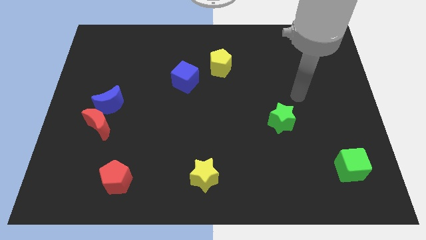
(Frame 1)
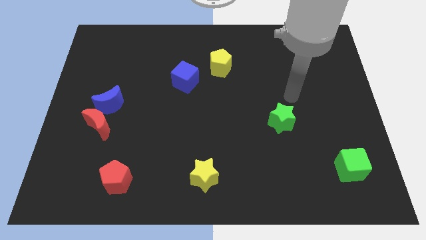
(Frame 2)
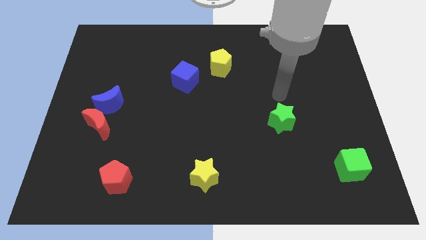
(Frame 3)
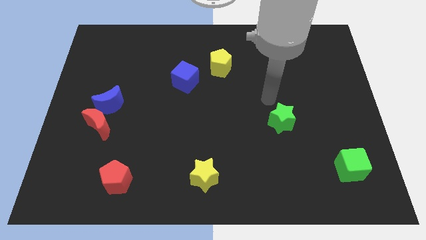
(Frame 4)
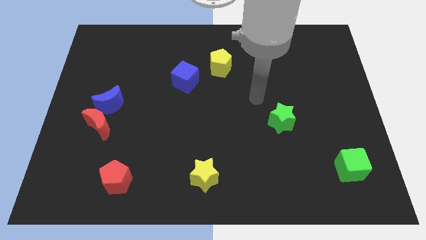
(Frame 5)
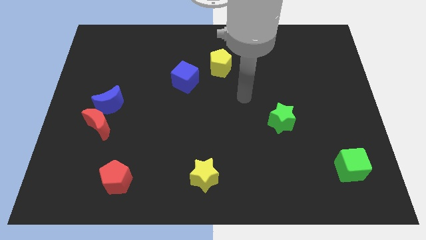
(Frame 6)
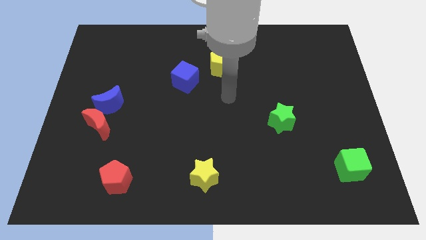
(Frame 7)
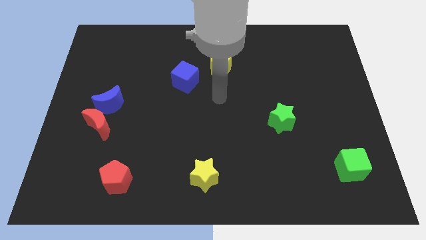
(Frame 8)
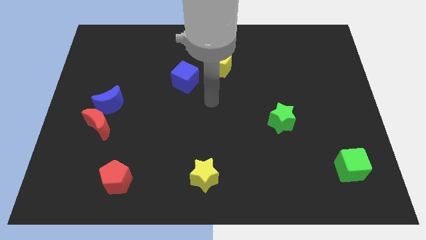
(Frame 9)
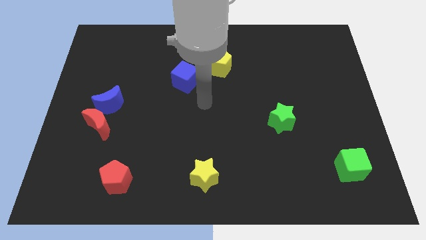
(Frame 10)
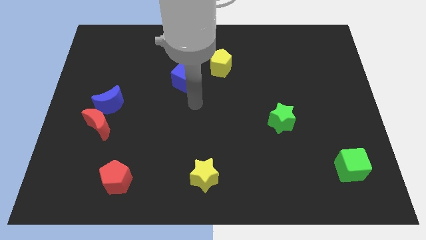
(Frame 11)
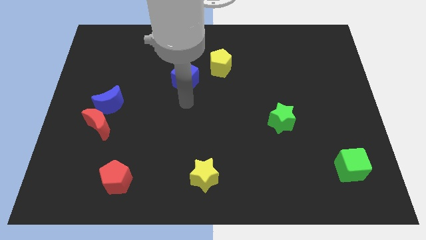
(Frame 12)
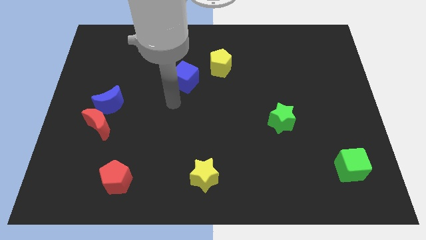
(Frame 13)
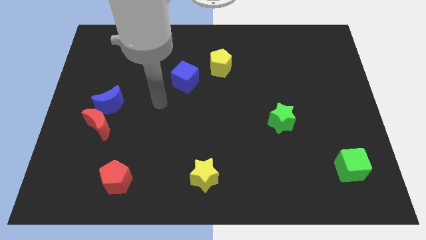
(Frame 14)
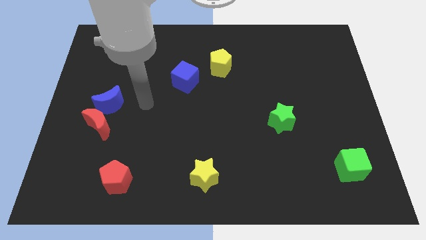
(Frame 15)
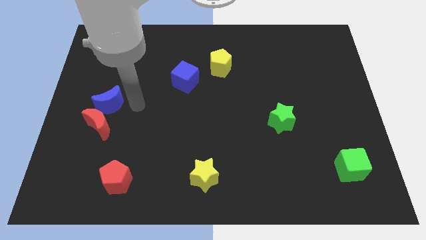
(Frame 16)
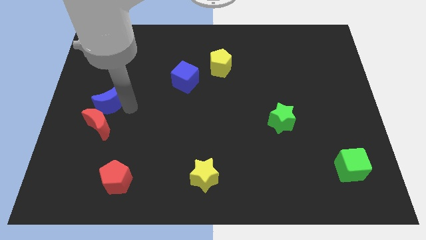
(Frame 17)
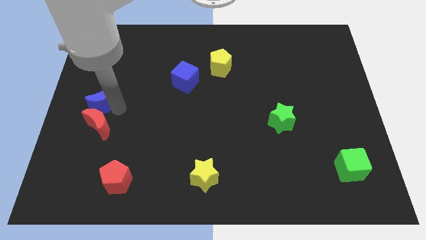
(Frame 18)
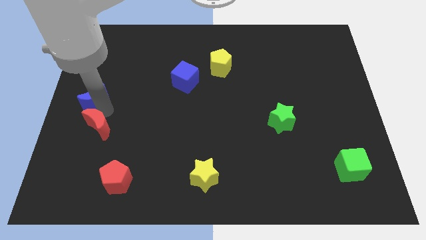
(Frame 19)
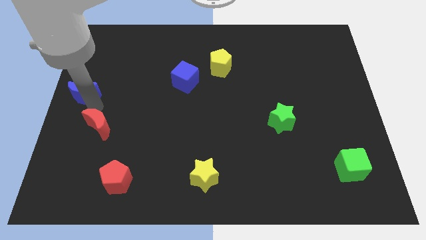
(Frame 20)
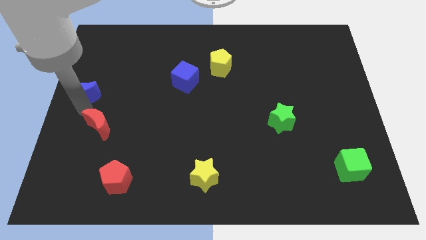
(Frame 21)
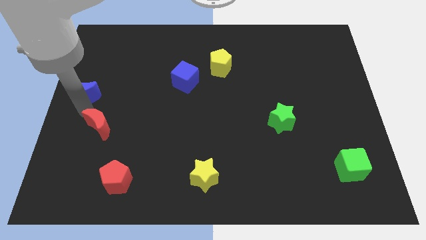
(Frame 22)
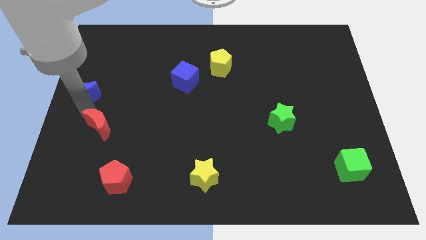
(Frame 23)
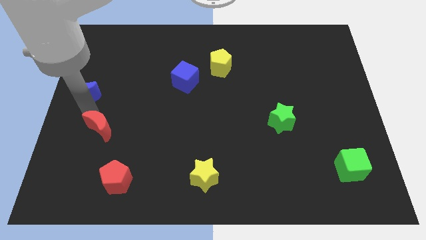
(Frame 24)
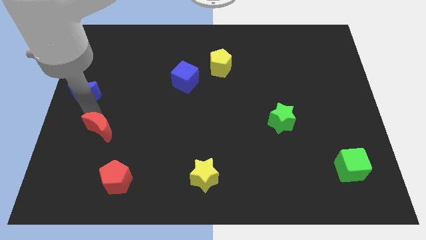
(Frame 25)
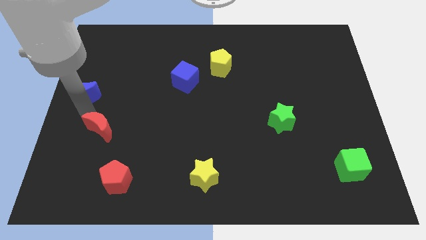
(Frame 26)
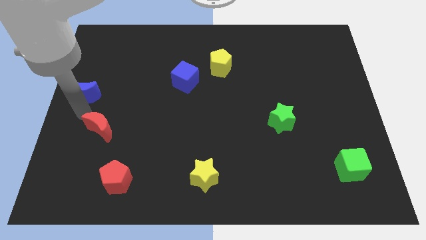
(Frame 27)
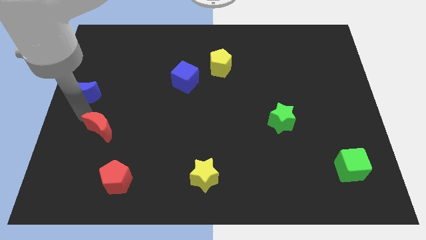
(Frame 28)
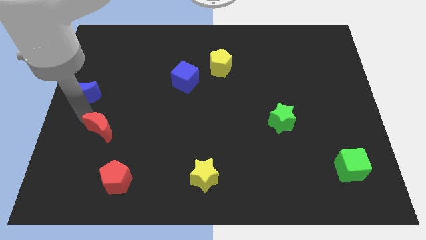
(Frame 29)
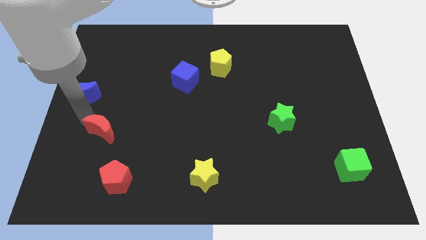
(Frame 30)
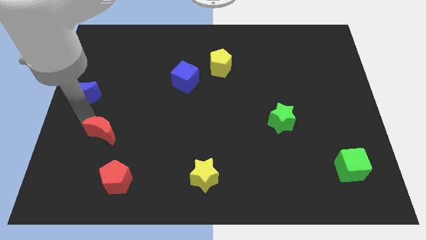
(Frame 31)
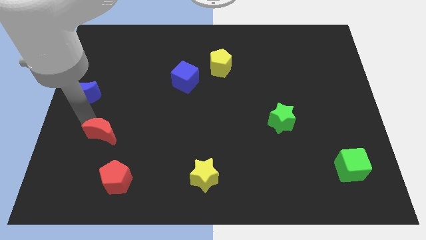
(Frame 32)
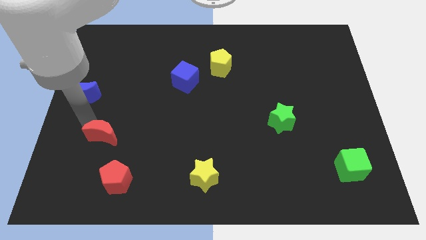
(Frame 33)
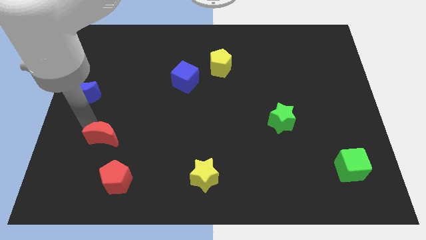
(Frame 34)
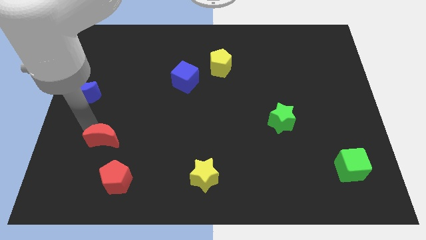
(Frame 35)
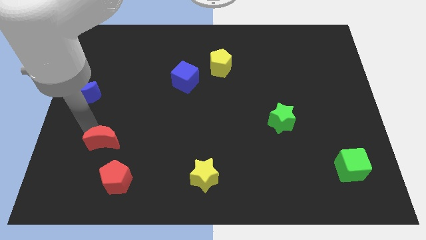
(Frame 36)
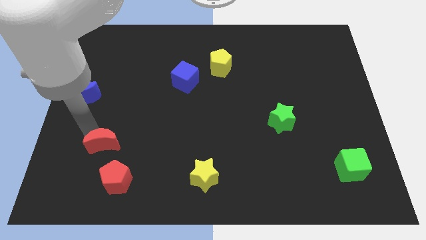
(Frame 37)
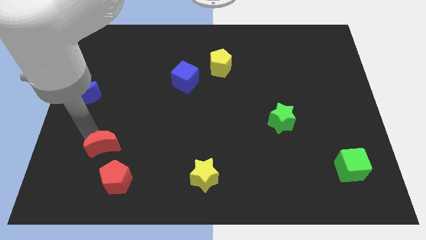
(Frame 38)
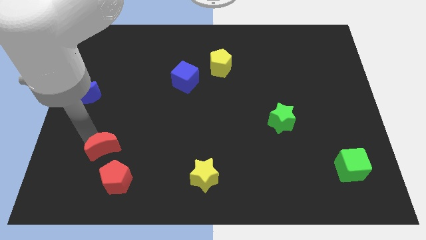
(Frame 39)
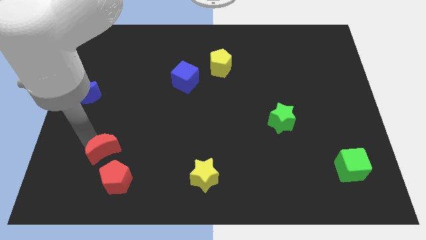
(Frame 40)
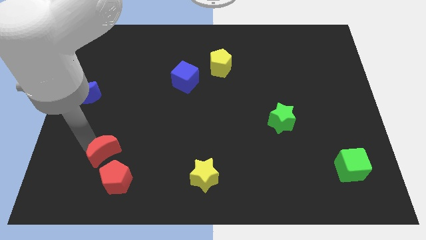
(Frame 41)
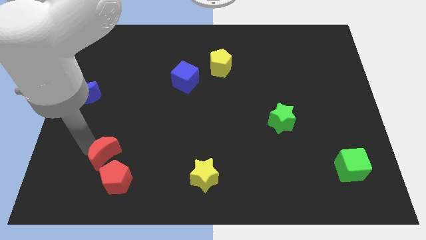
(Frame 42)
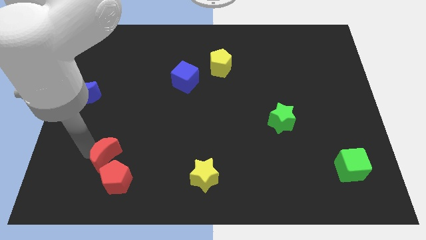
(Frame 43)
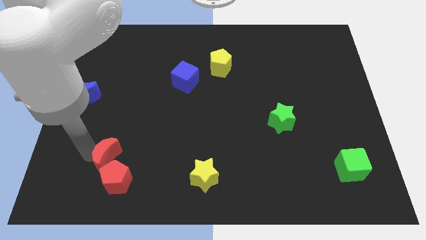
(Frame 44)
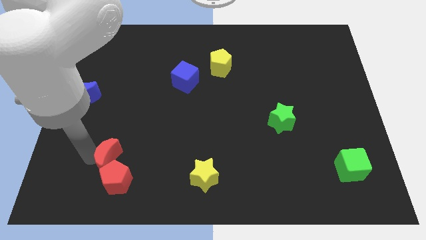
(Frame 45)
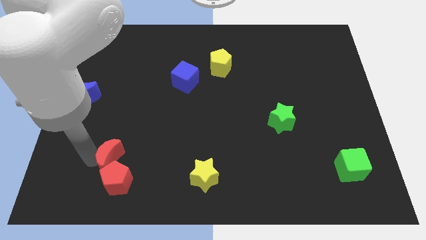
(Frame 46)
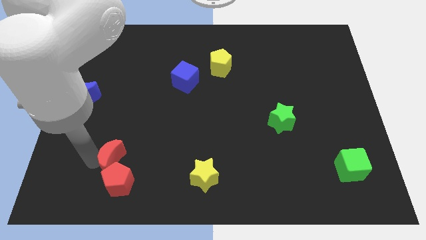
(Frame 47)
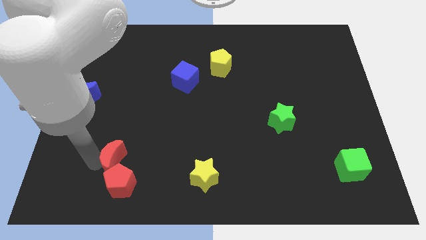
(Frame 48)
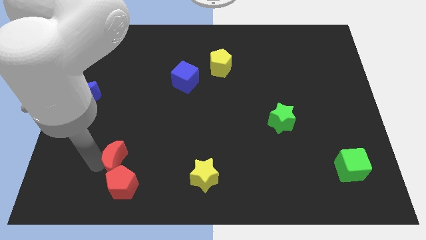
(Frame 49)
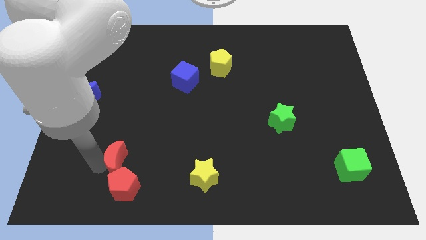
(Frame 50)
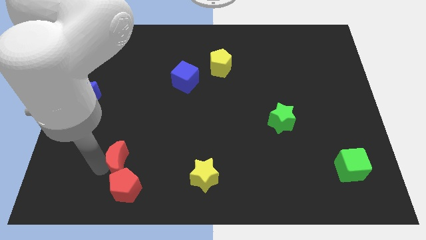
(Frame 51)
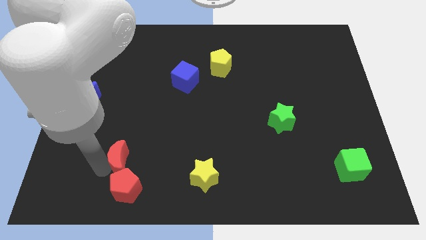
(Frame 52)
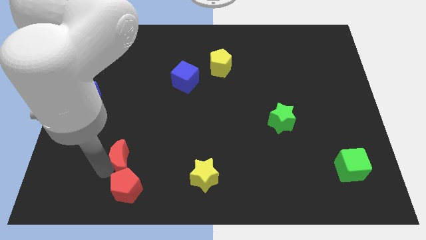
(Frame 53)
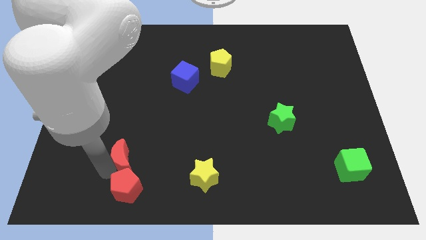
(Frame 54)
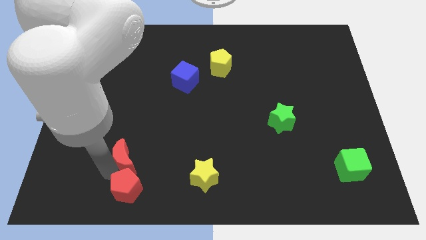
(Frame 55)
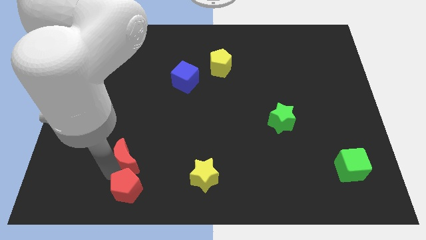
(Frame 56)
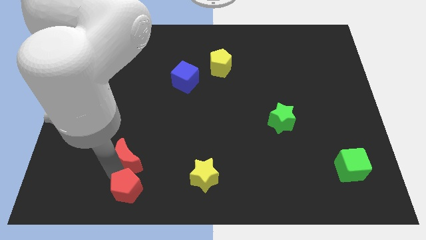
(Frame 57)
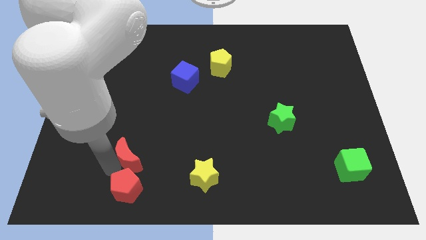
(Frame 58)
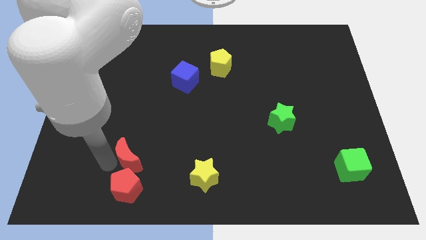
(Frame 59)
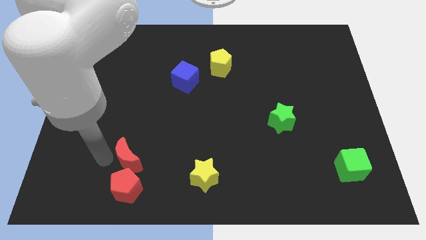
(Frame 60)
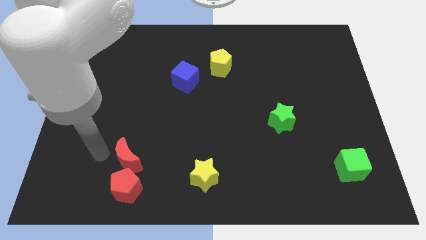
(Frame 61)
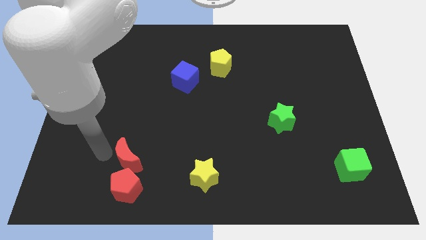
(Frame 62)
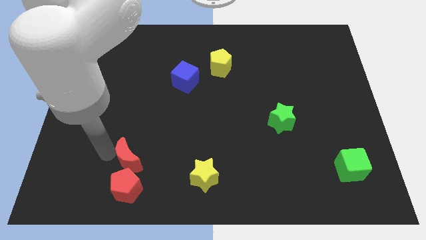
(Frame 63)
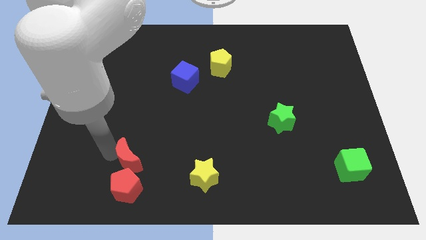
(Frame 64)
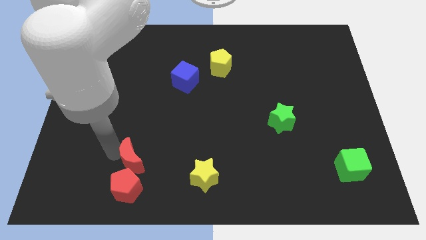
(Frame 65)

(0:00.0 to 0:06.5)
slide the red moon to the top right side of the red pentagon

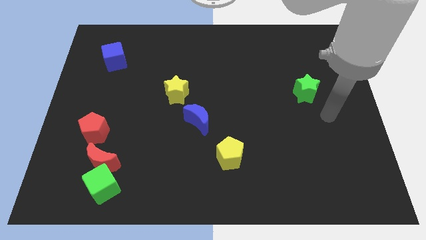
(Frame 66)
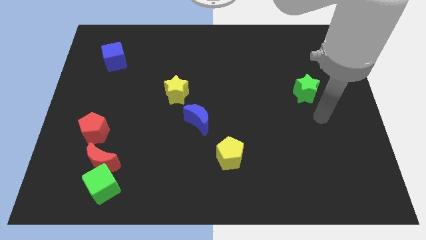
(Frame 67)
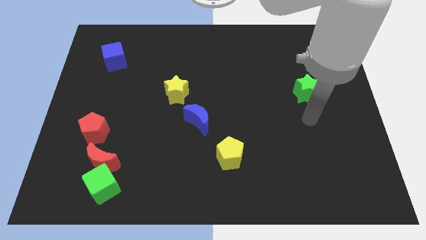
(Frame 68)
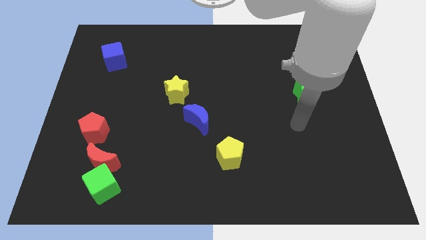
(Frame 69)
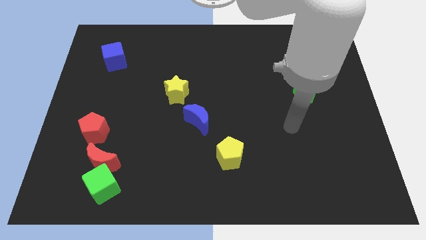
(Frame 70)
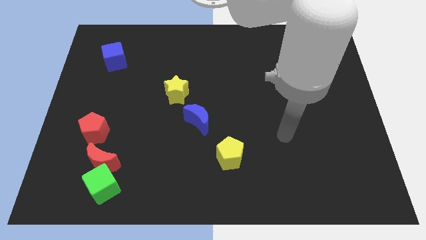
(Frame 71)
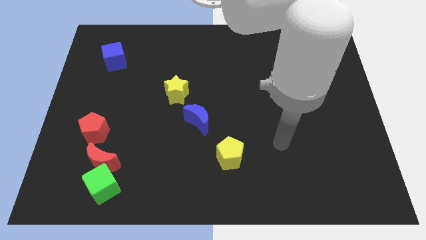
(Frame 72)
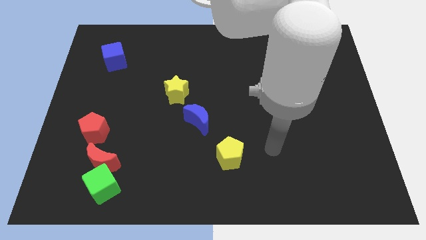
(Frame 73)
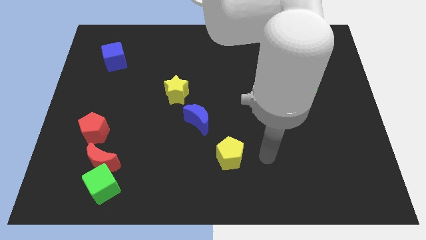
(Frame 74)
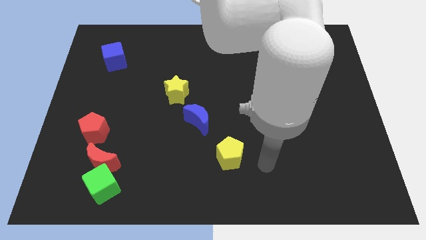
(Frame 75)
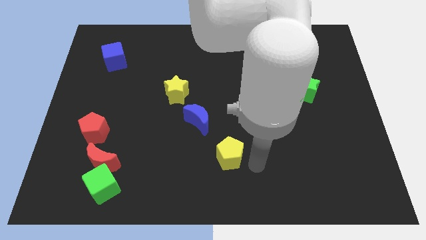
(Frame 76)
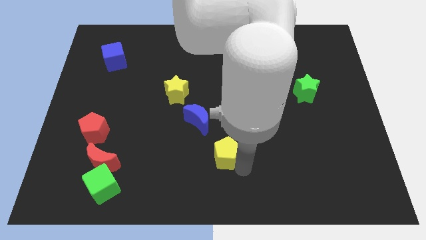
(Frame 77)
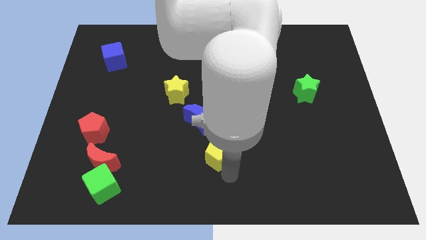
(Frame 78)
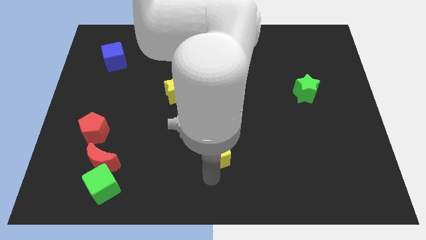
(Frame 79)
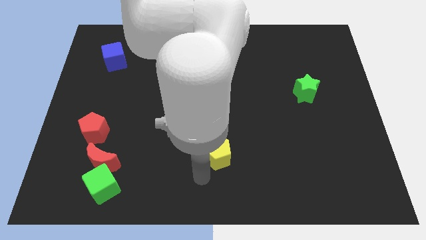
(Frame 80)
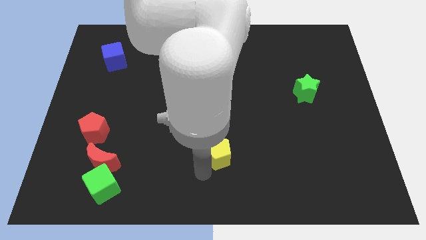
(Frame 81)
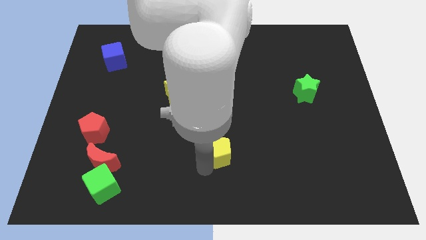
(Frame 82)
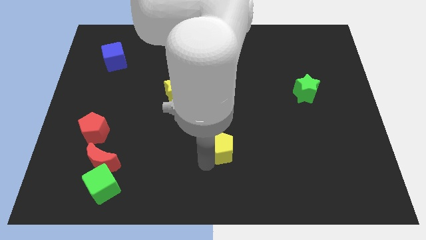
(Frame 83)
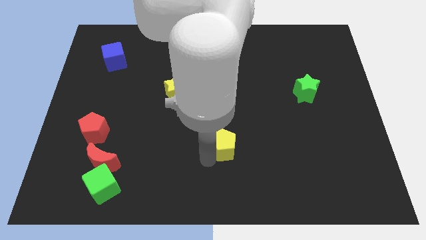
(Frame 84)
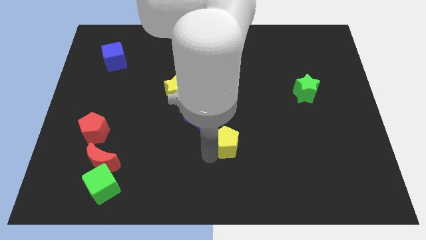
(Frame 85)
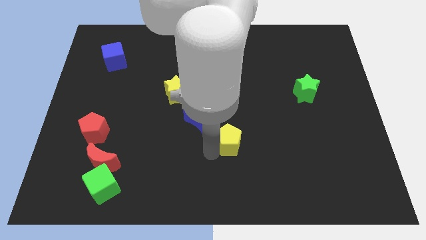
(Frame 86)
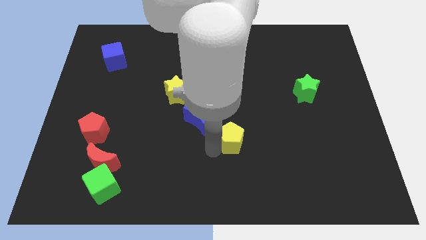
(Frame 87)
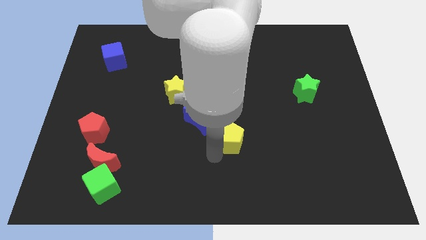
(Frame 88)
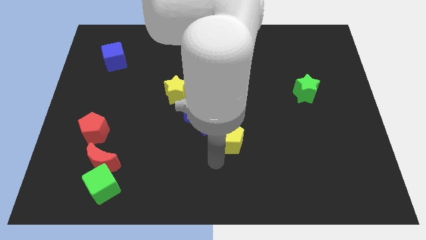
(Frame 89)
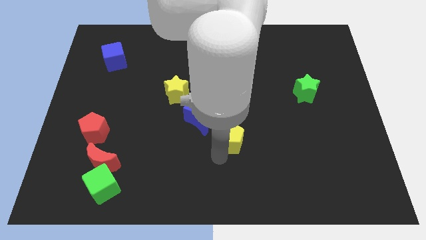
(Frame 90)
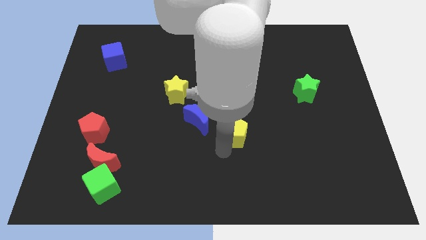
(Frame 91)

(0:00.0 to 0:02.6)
put the yellow pentagon just right of the blue moon
